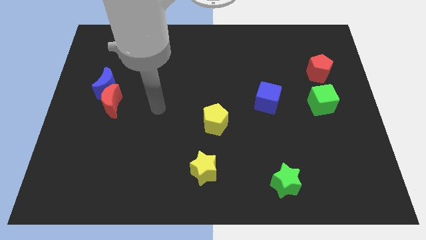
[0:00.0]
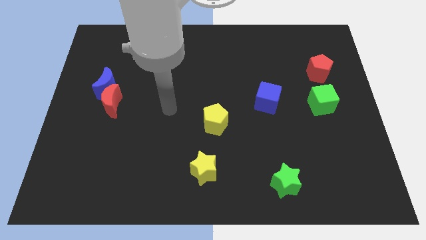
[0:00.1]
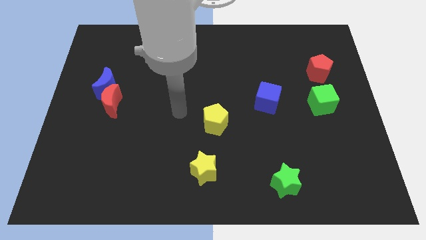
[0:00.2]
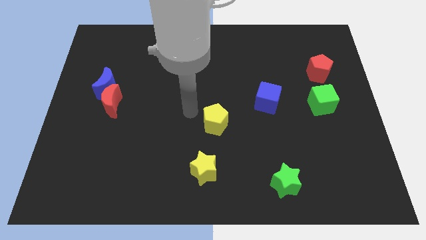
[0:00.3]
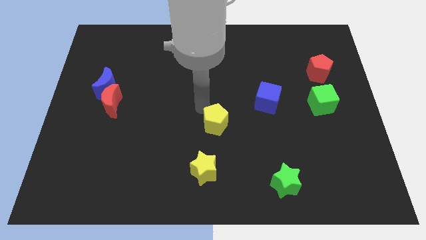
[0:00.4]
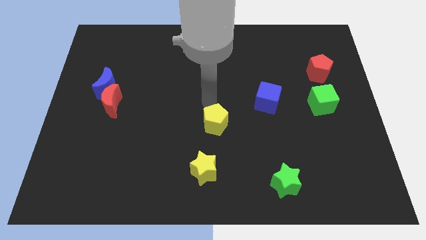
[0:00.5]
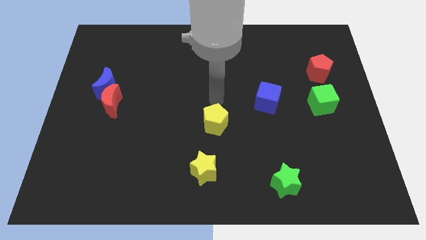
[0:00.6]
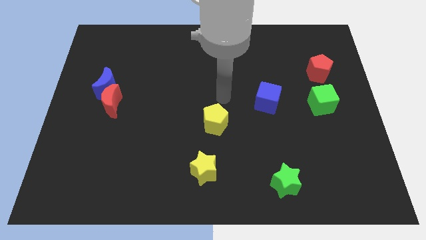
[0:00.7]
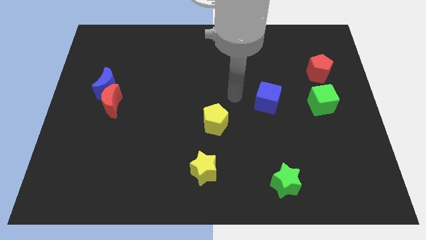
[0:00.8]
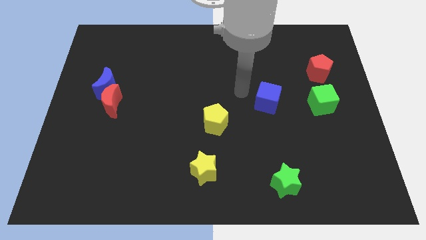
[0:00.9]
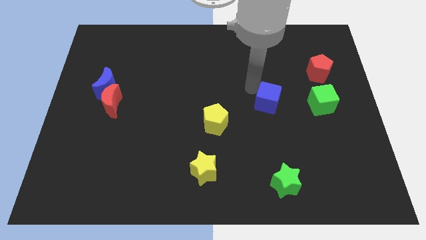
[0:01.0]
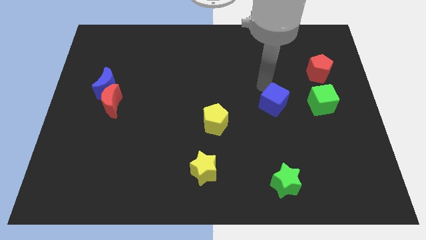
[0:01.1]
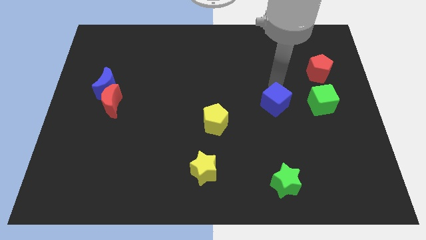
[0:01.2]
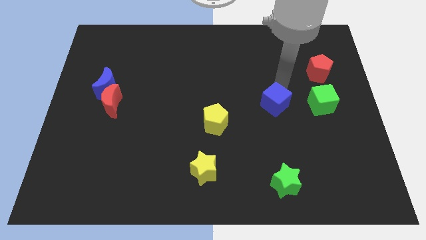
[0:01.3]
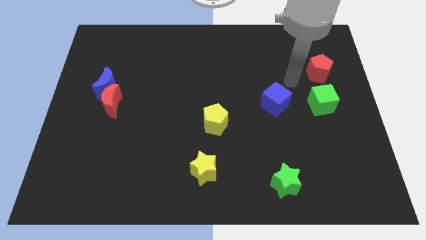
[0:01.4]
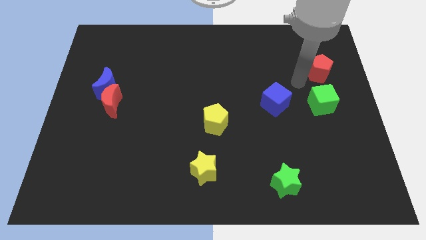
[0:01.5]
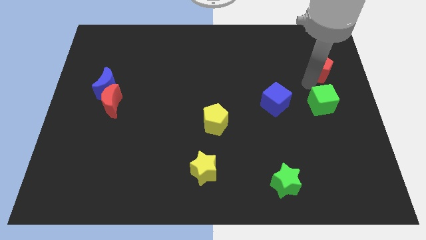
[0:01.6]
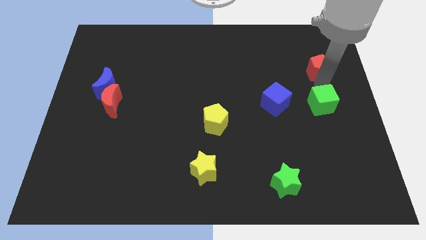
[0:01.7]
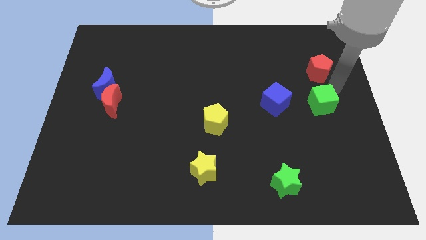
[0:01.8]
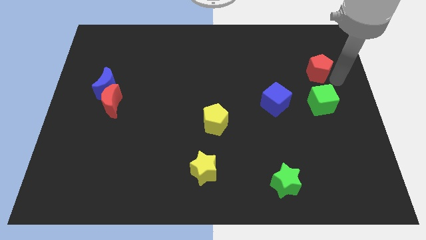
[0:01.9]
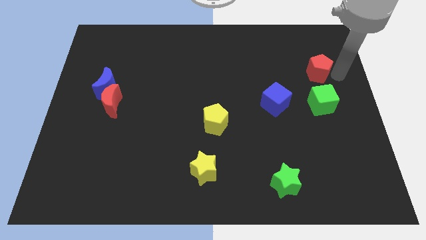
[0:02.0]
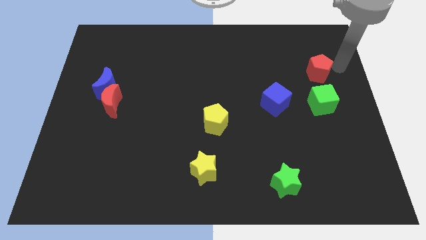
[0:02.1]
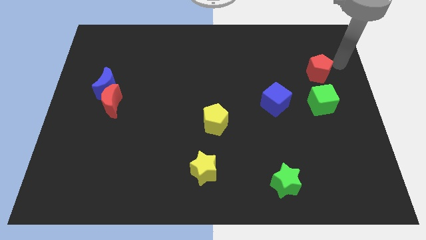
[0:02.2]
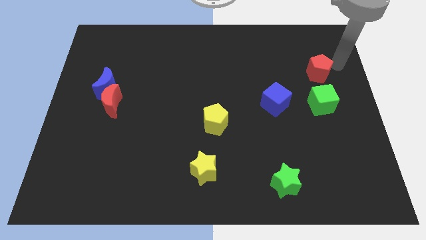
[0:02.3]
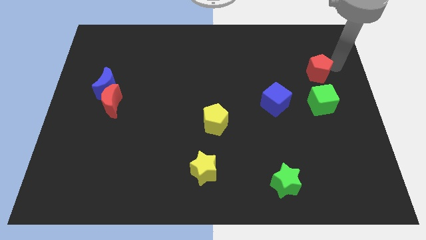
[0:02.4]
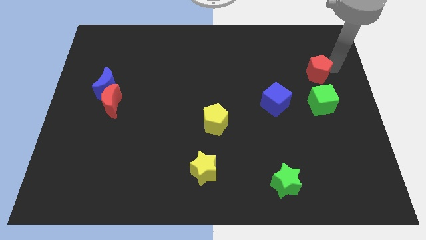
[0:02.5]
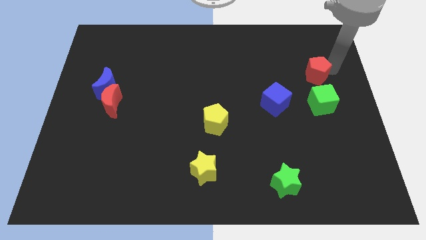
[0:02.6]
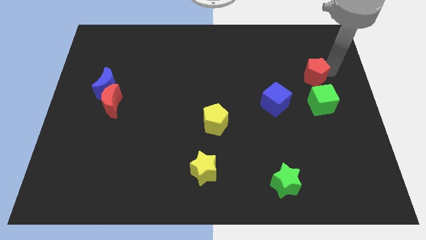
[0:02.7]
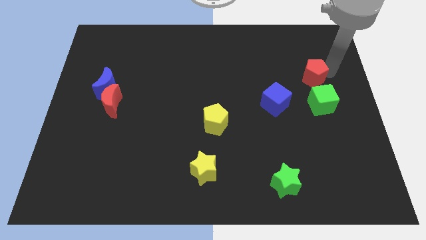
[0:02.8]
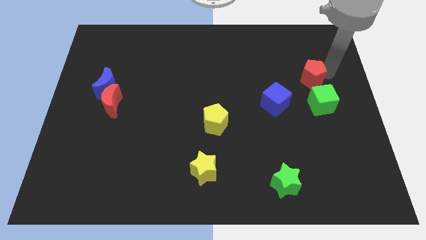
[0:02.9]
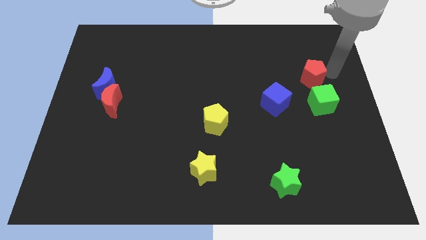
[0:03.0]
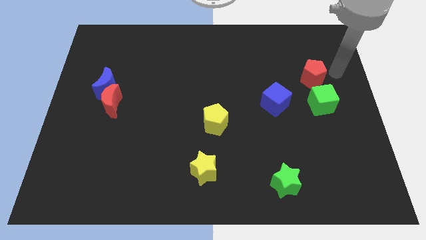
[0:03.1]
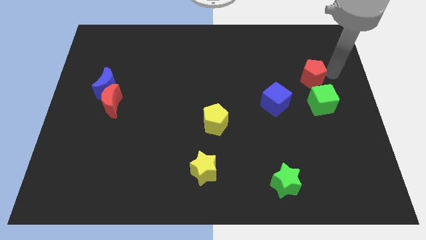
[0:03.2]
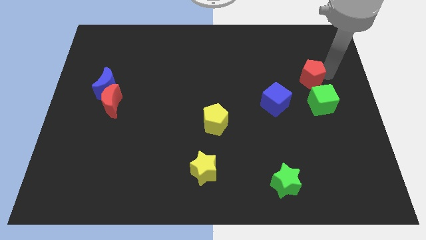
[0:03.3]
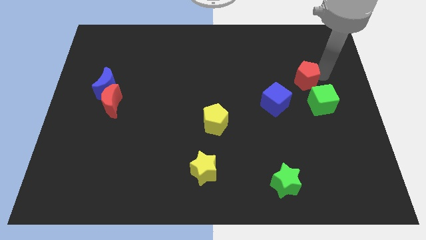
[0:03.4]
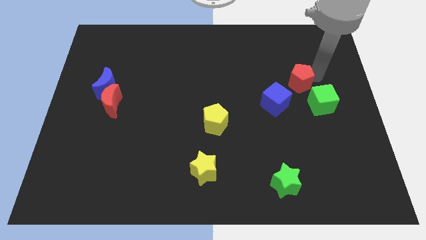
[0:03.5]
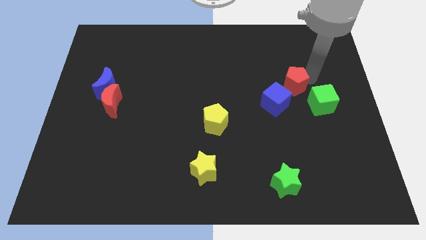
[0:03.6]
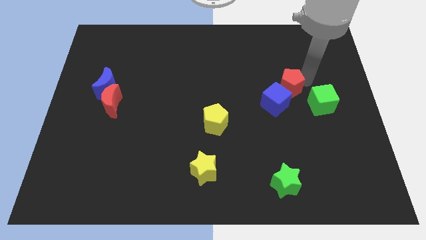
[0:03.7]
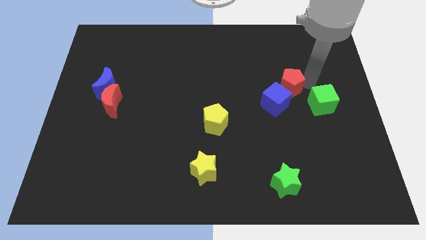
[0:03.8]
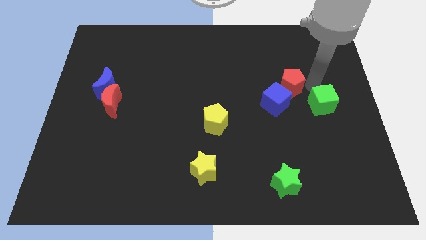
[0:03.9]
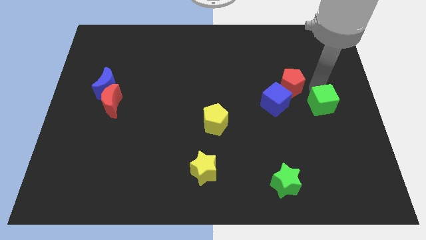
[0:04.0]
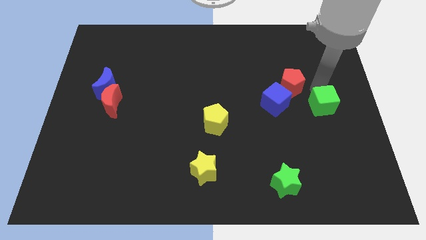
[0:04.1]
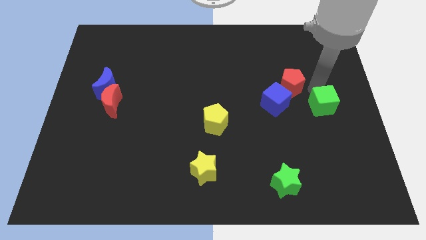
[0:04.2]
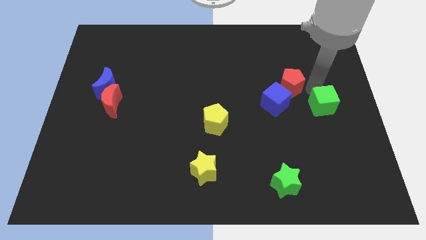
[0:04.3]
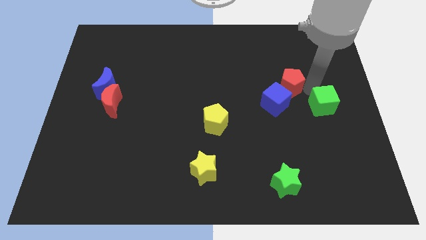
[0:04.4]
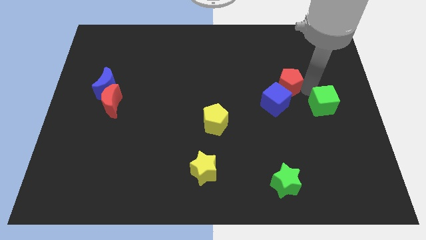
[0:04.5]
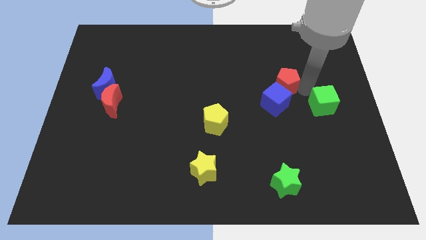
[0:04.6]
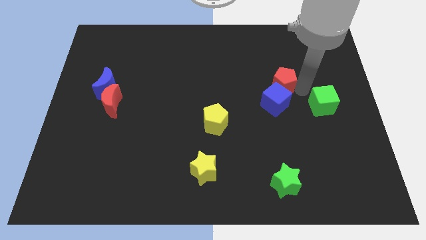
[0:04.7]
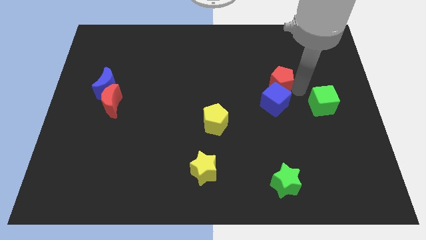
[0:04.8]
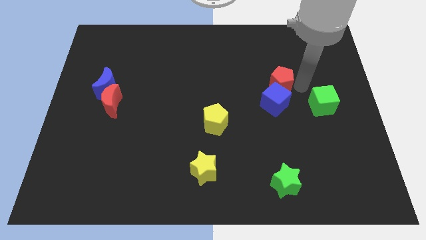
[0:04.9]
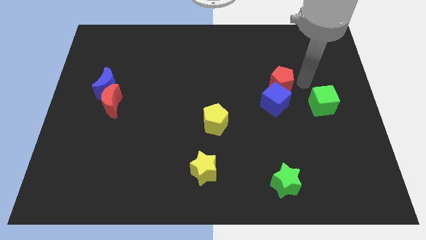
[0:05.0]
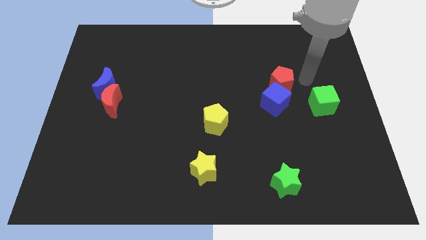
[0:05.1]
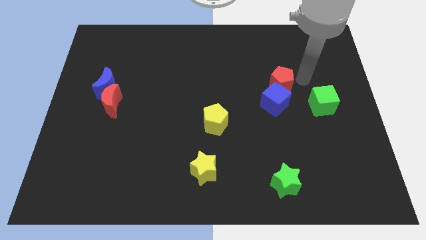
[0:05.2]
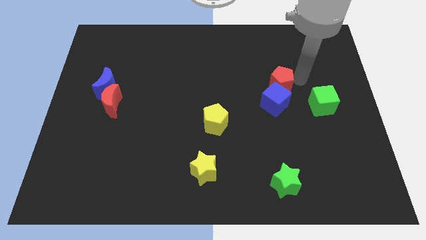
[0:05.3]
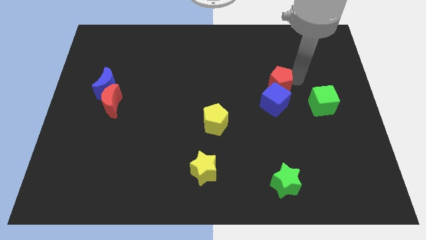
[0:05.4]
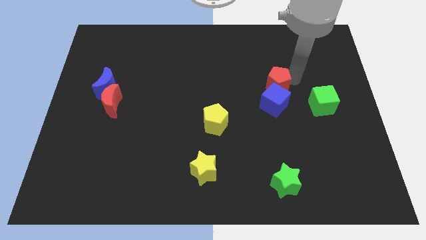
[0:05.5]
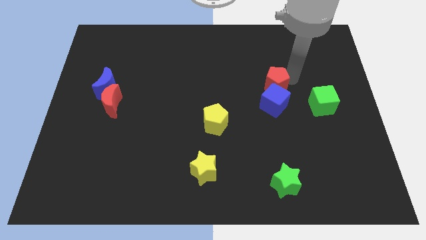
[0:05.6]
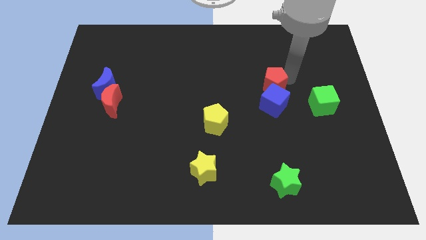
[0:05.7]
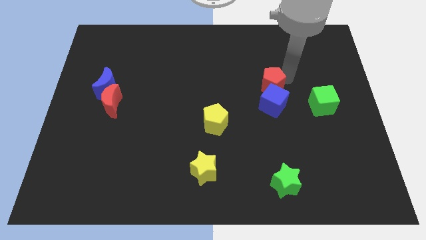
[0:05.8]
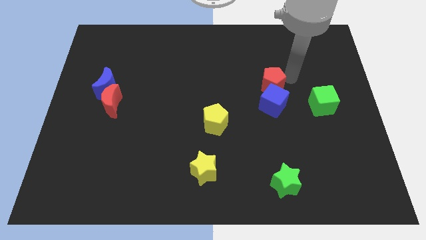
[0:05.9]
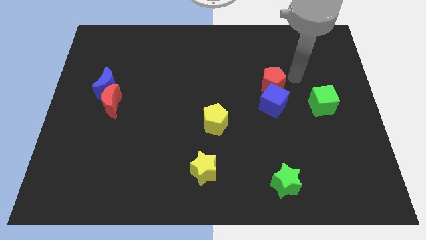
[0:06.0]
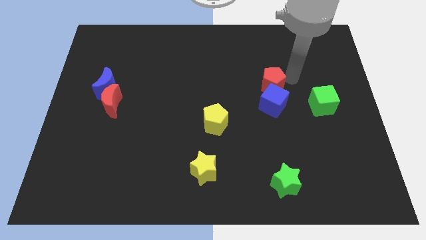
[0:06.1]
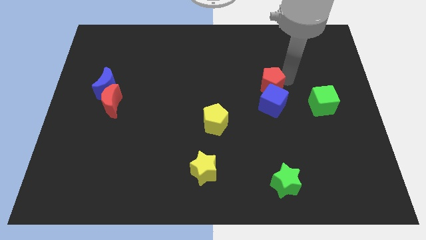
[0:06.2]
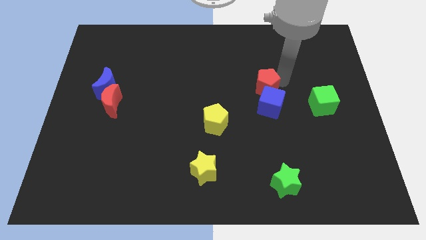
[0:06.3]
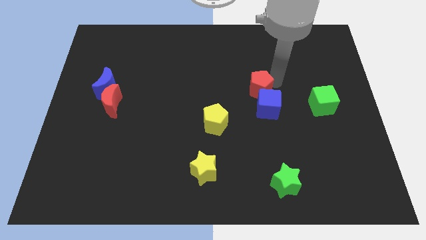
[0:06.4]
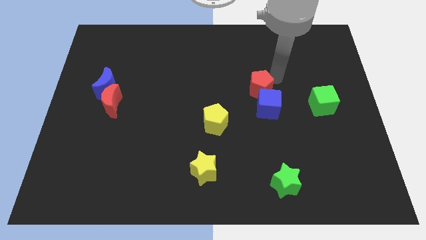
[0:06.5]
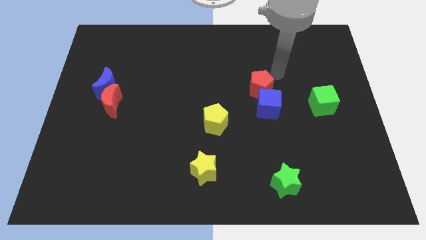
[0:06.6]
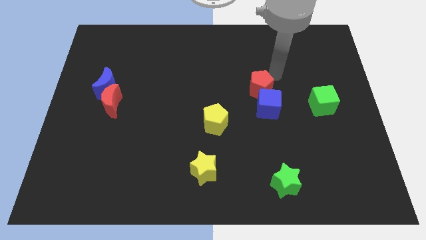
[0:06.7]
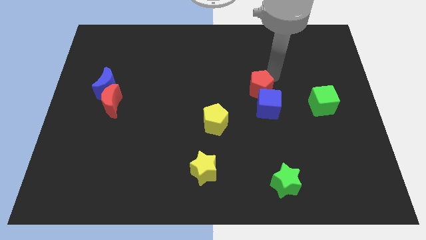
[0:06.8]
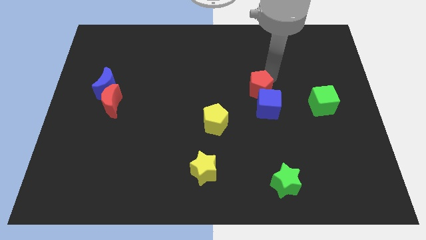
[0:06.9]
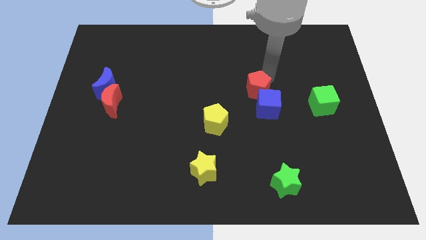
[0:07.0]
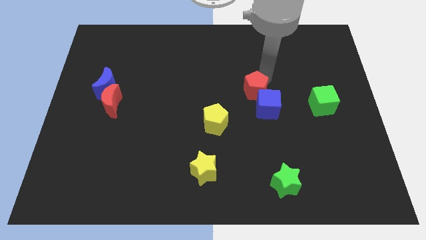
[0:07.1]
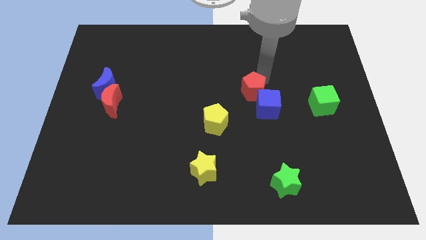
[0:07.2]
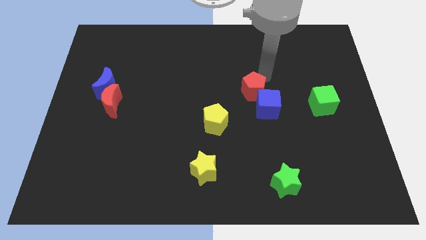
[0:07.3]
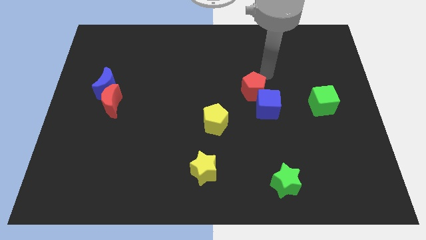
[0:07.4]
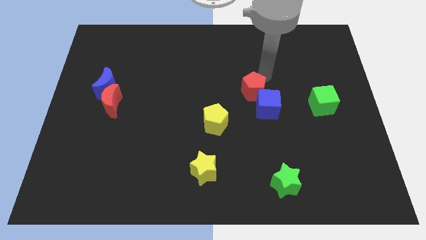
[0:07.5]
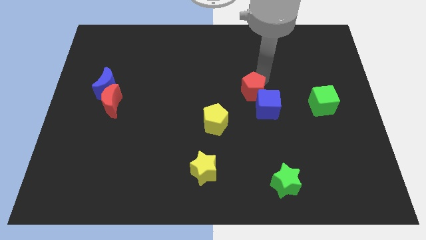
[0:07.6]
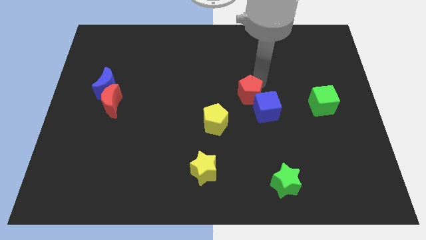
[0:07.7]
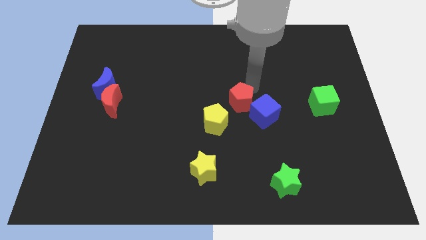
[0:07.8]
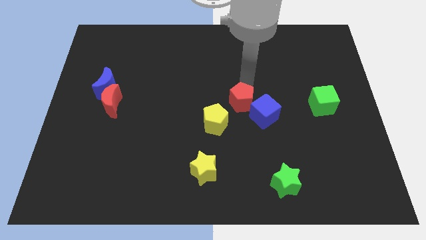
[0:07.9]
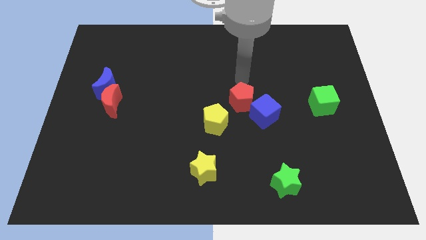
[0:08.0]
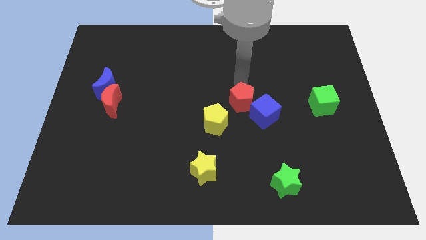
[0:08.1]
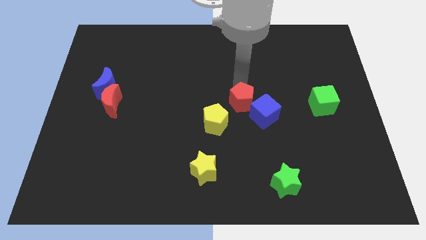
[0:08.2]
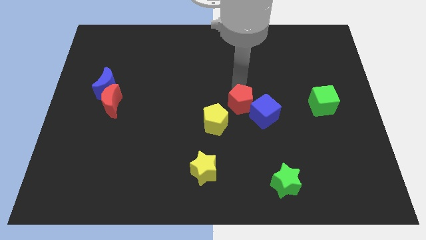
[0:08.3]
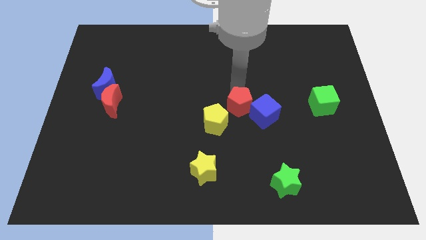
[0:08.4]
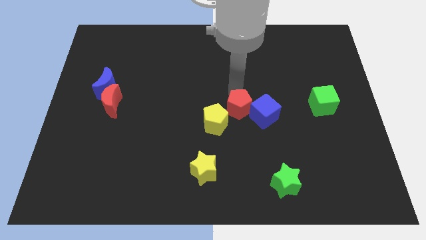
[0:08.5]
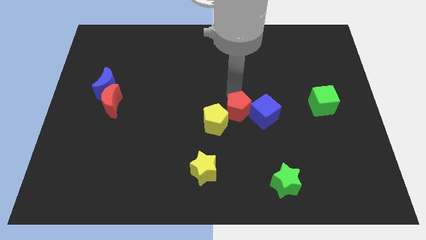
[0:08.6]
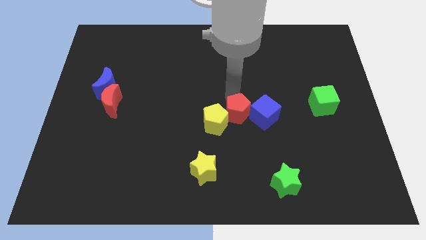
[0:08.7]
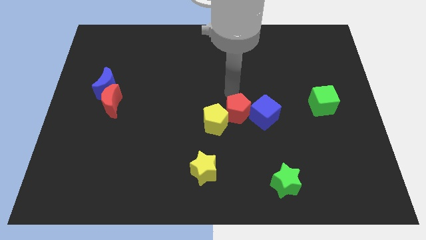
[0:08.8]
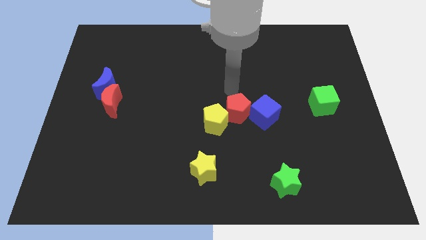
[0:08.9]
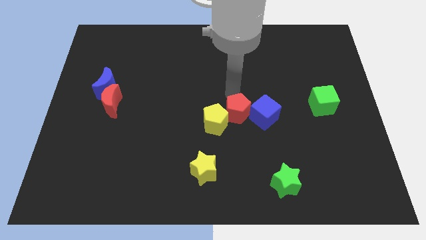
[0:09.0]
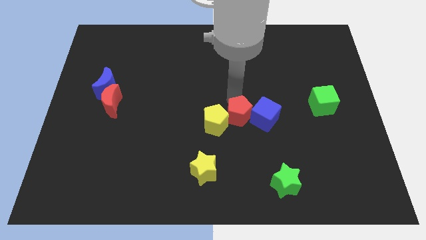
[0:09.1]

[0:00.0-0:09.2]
move the red pentagon to the bottom left of the blue cube
